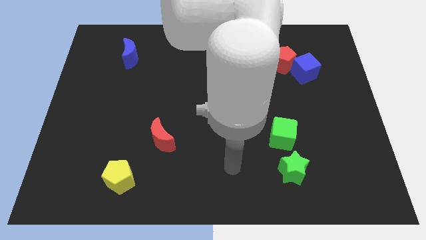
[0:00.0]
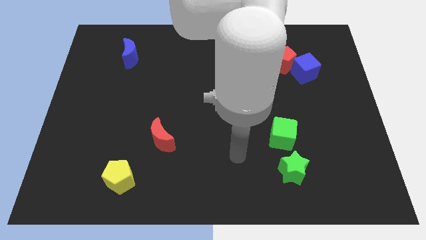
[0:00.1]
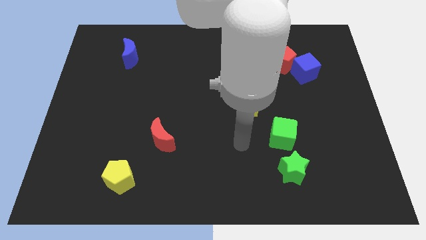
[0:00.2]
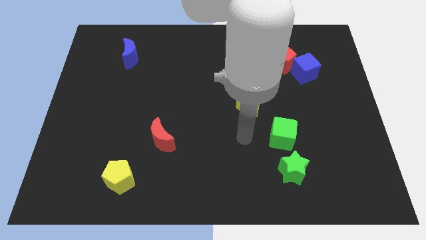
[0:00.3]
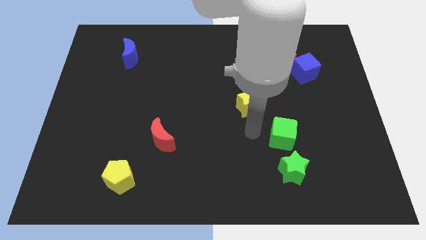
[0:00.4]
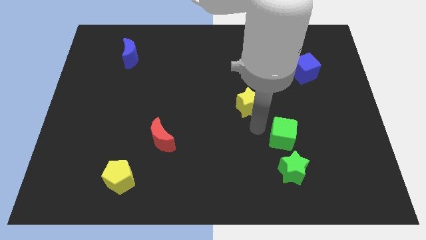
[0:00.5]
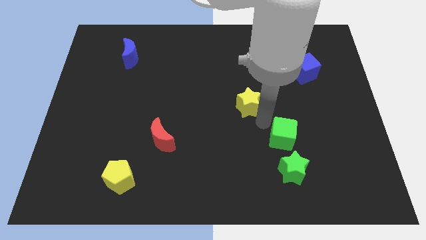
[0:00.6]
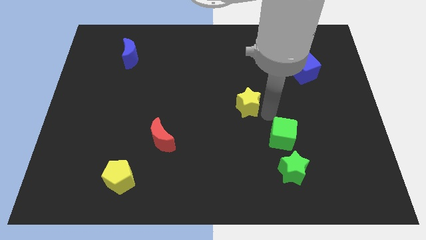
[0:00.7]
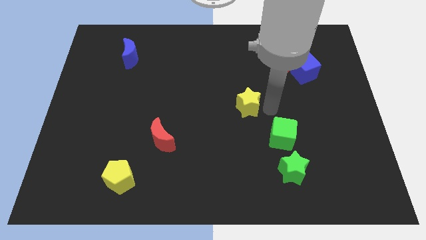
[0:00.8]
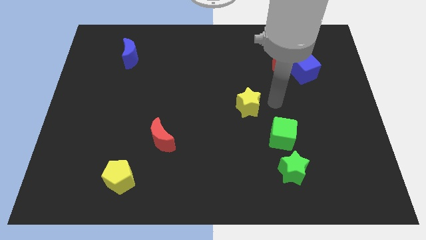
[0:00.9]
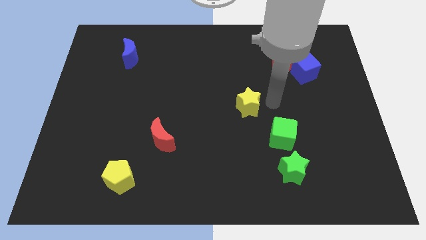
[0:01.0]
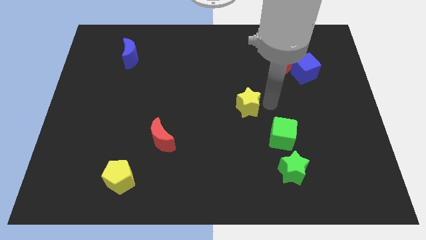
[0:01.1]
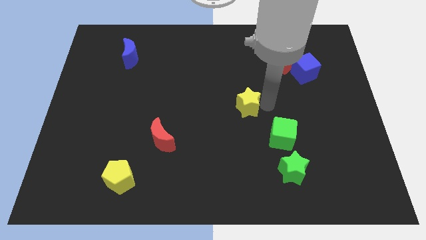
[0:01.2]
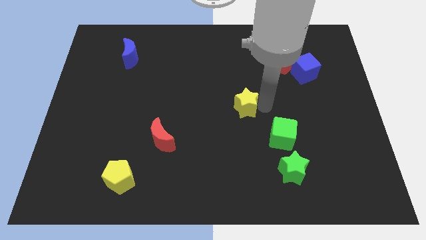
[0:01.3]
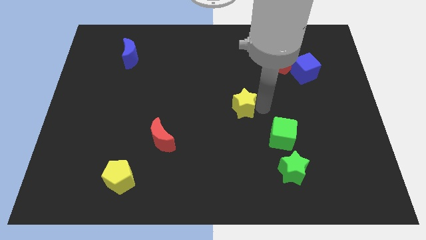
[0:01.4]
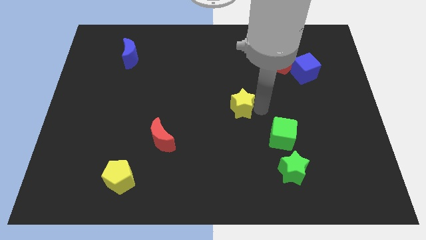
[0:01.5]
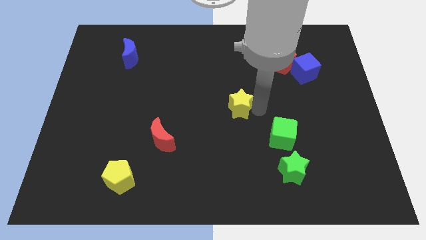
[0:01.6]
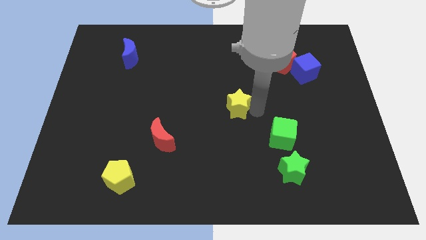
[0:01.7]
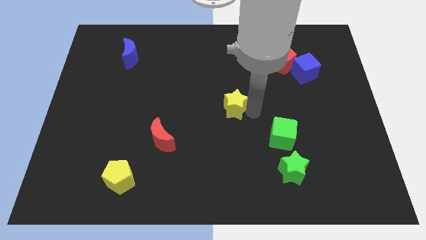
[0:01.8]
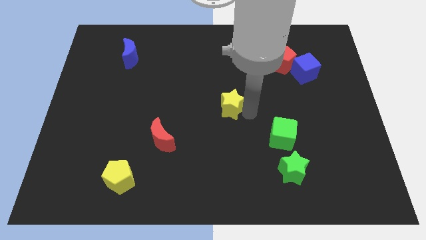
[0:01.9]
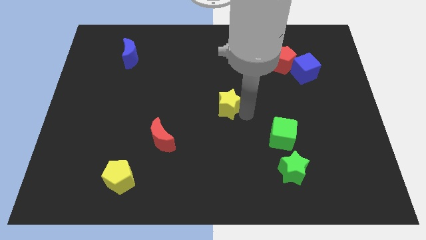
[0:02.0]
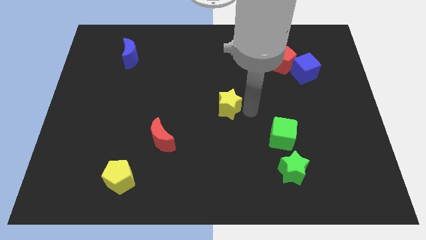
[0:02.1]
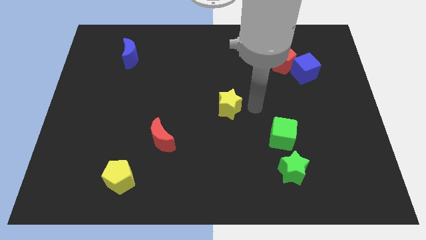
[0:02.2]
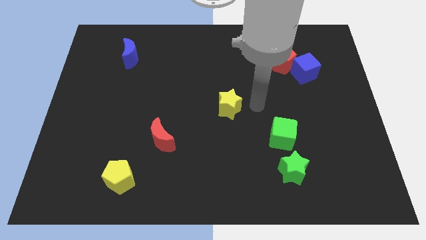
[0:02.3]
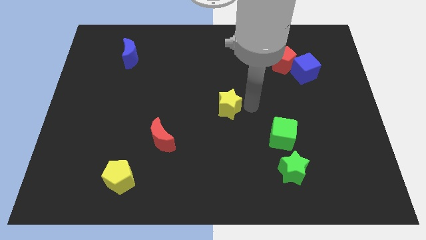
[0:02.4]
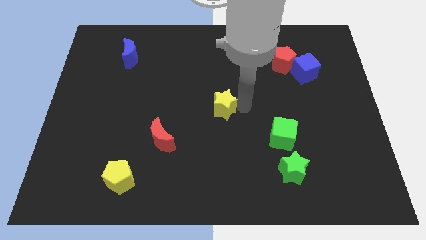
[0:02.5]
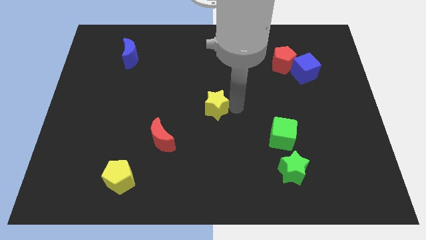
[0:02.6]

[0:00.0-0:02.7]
move the yellow star to the left somewhat

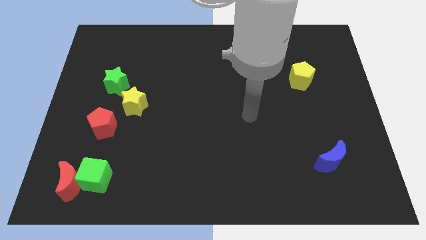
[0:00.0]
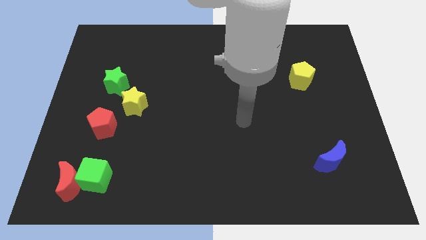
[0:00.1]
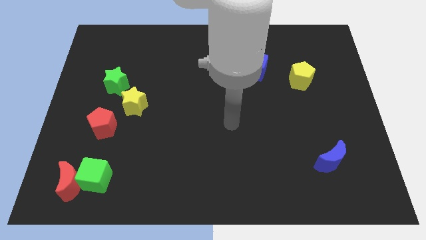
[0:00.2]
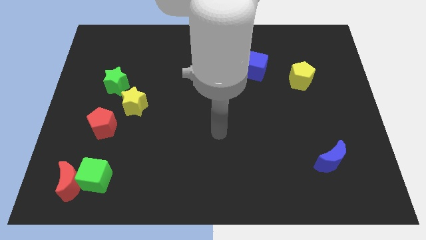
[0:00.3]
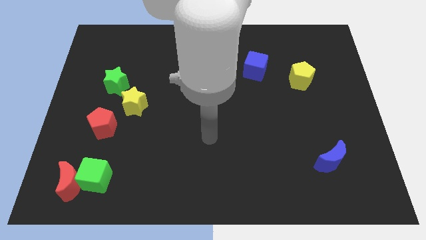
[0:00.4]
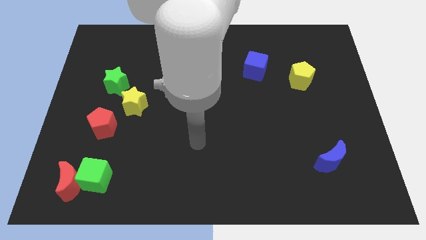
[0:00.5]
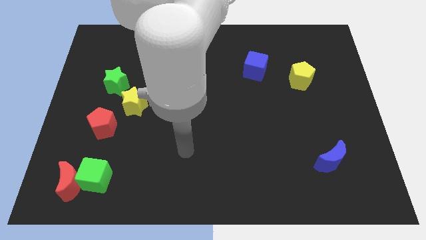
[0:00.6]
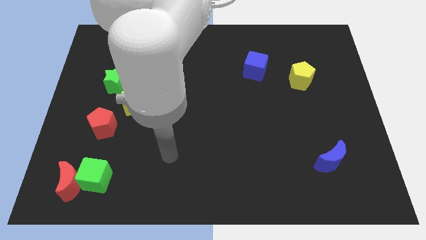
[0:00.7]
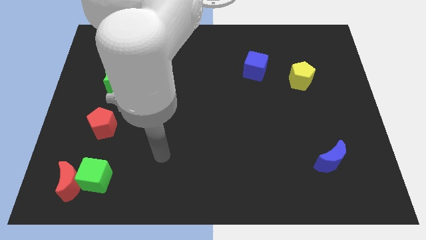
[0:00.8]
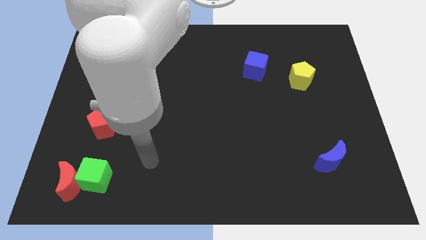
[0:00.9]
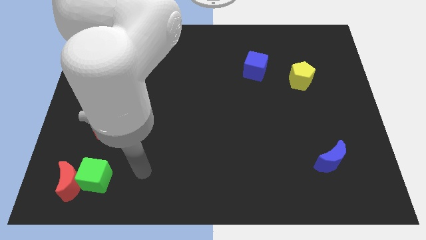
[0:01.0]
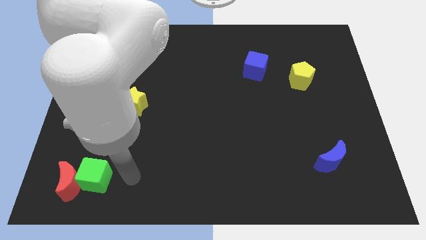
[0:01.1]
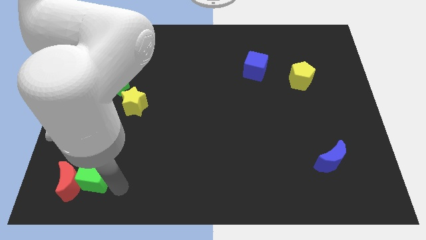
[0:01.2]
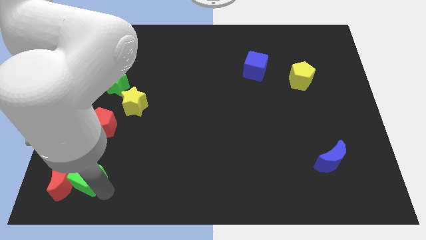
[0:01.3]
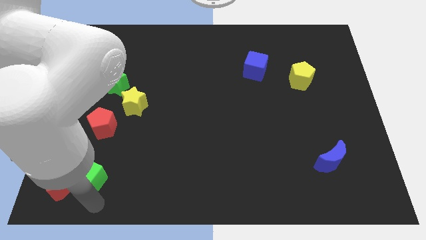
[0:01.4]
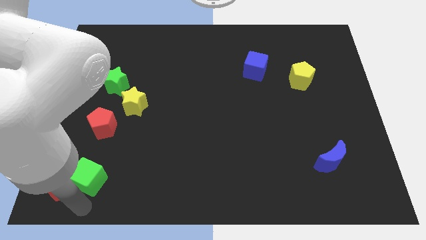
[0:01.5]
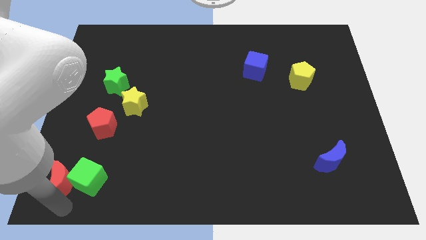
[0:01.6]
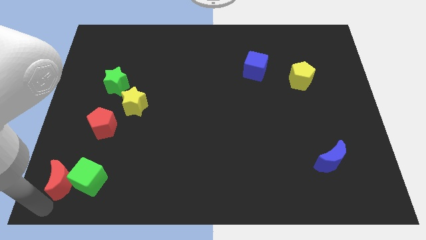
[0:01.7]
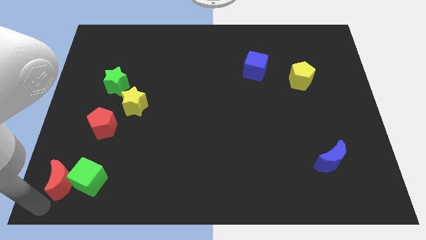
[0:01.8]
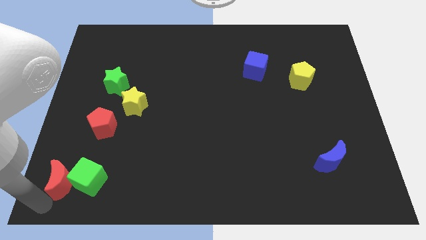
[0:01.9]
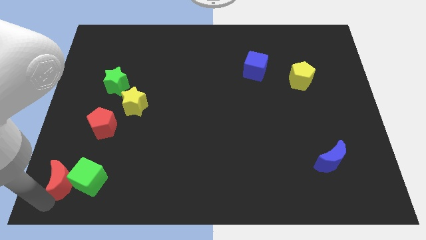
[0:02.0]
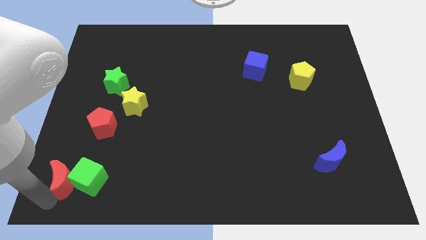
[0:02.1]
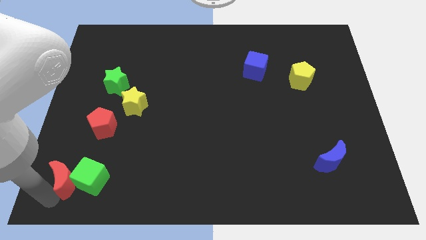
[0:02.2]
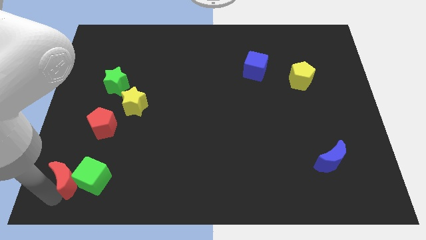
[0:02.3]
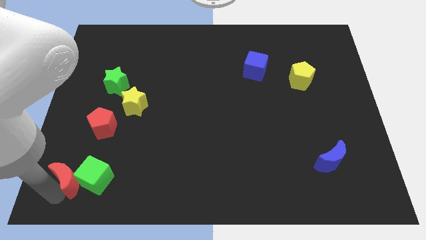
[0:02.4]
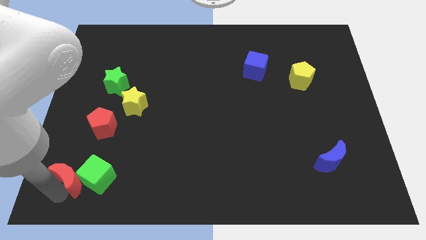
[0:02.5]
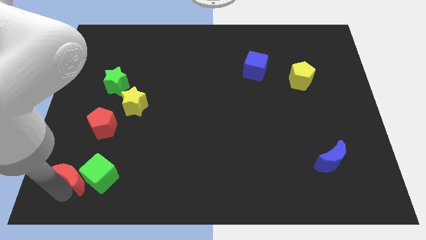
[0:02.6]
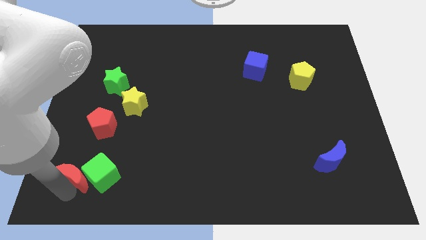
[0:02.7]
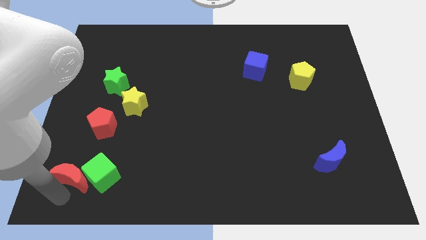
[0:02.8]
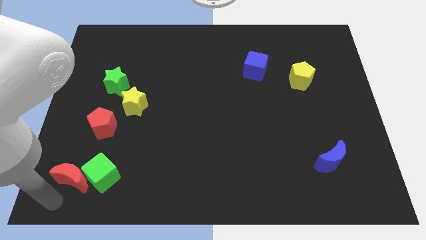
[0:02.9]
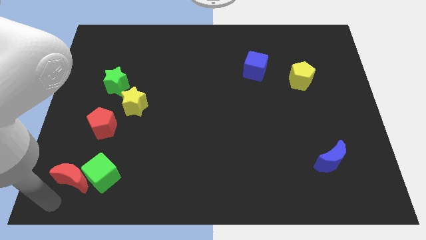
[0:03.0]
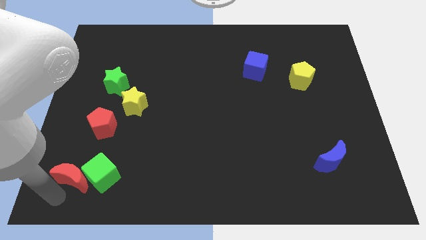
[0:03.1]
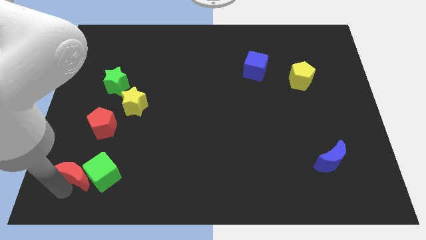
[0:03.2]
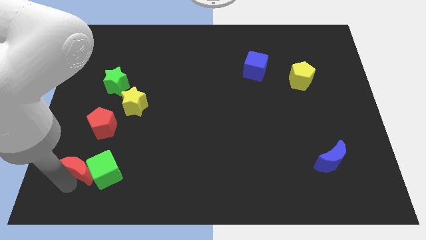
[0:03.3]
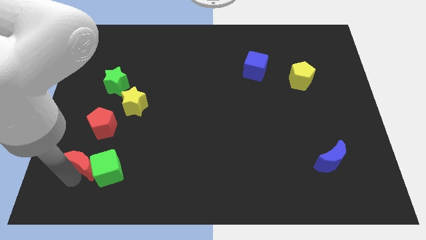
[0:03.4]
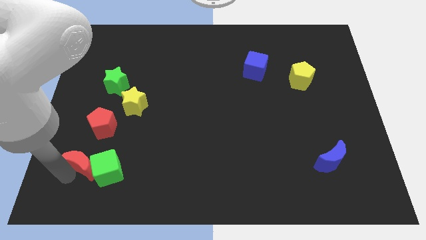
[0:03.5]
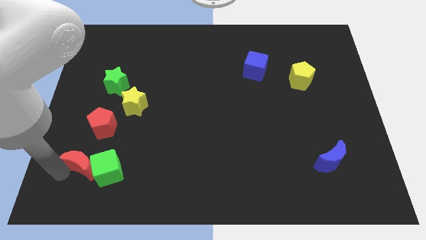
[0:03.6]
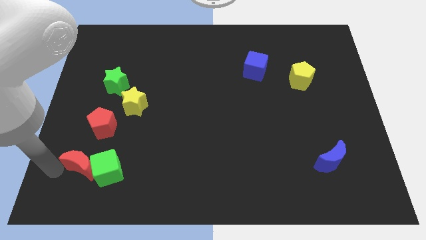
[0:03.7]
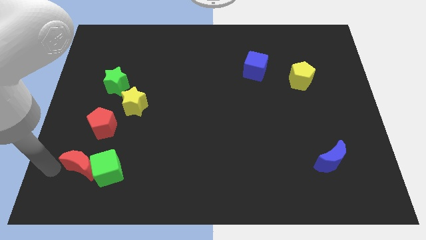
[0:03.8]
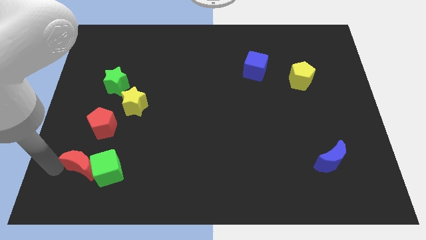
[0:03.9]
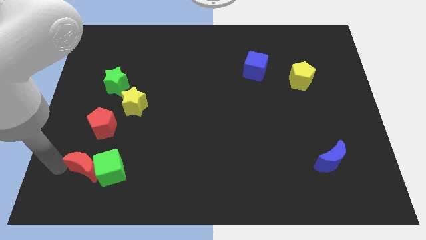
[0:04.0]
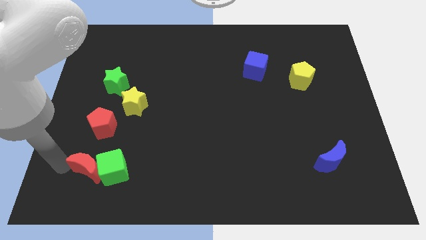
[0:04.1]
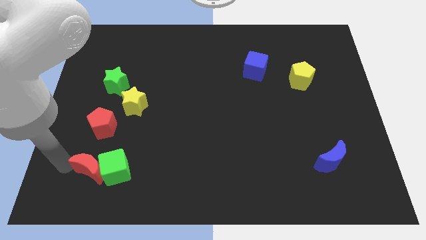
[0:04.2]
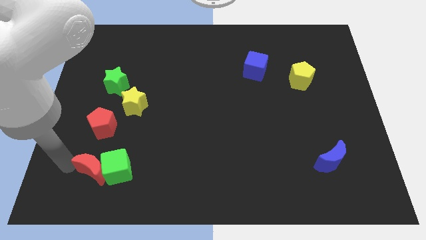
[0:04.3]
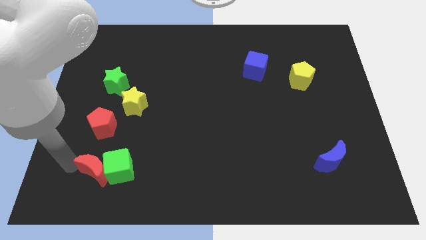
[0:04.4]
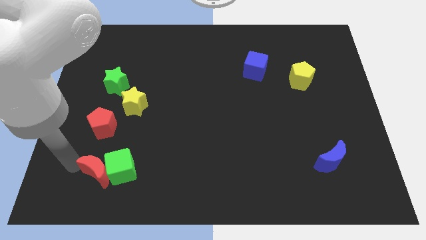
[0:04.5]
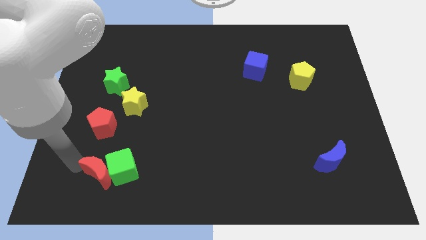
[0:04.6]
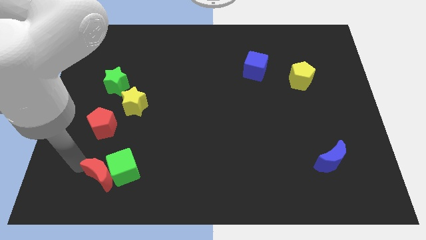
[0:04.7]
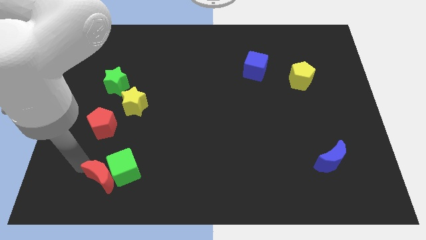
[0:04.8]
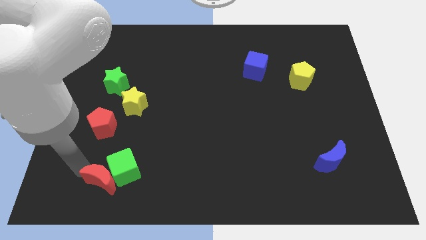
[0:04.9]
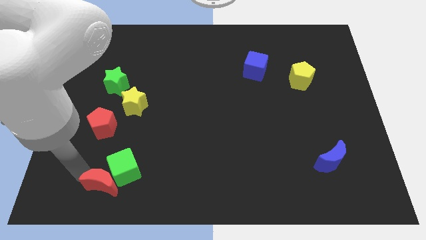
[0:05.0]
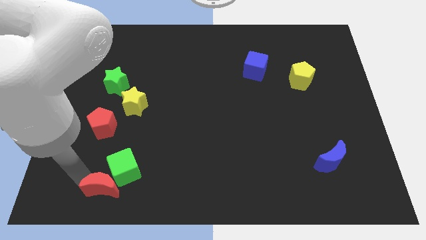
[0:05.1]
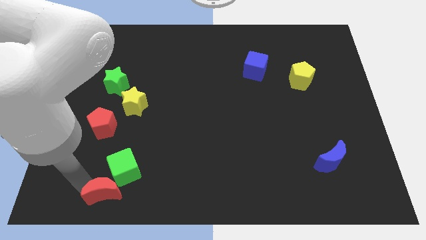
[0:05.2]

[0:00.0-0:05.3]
slide the red moon right somewhat
